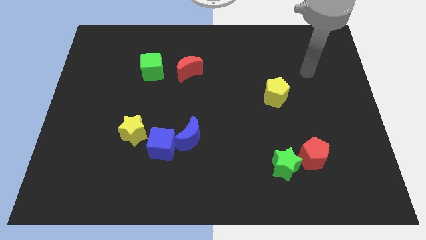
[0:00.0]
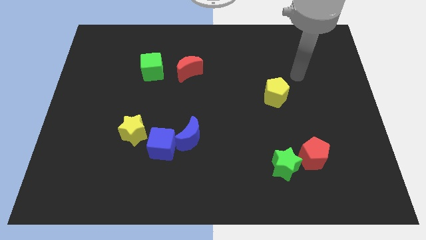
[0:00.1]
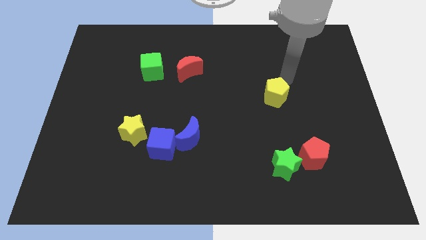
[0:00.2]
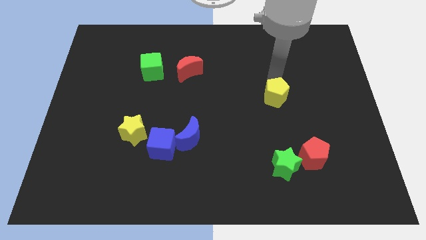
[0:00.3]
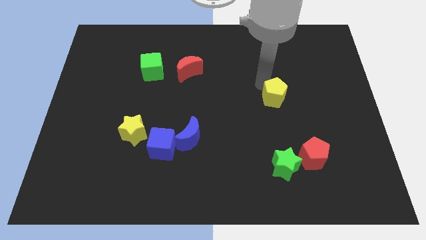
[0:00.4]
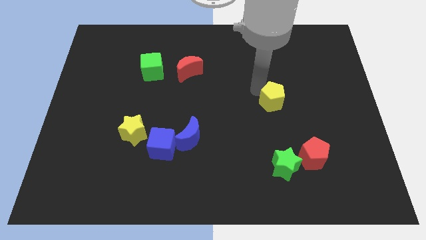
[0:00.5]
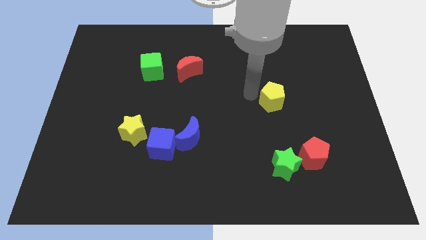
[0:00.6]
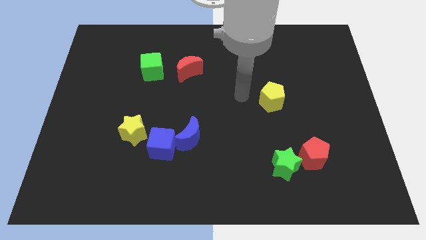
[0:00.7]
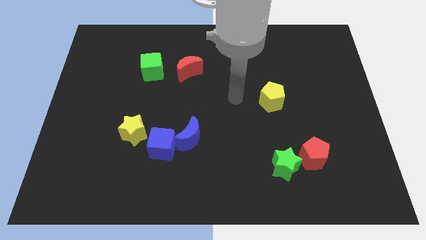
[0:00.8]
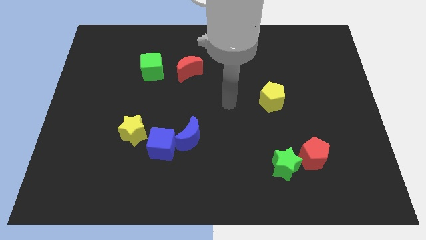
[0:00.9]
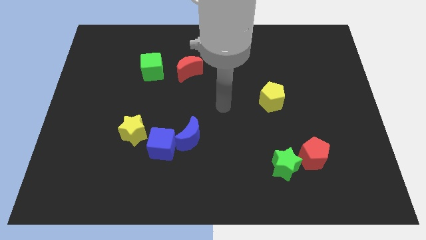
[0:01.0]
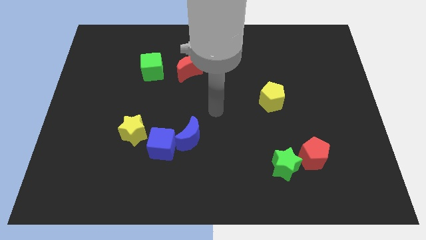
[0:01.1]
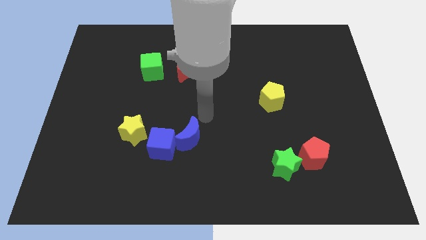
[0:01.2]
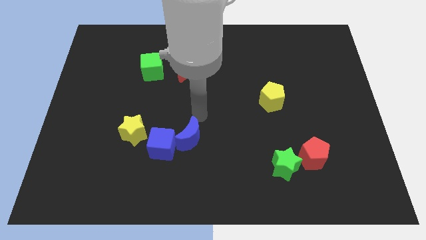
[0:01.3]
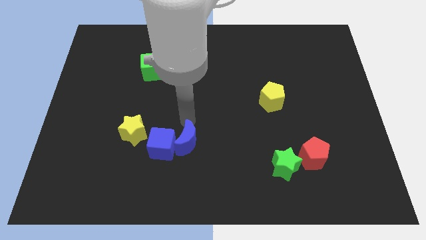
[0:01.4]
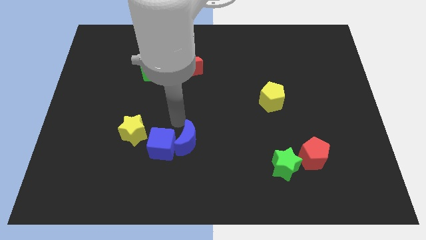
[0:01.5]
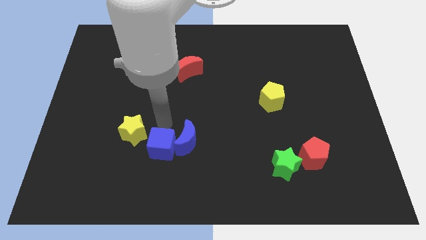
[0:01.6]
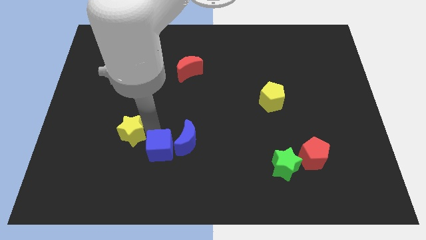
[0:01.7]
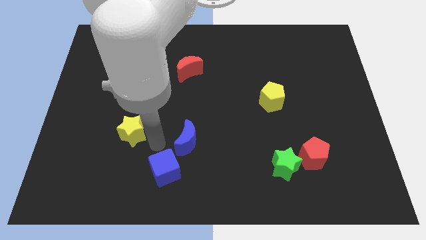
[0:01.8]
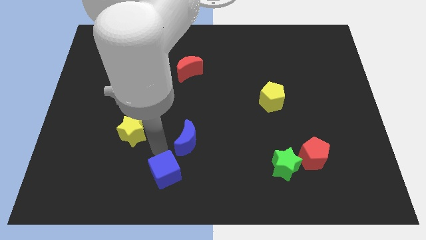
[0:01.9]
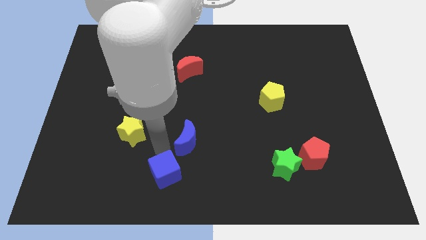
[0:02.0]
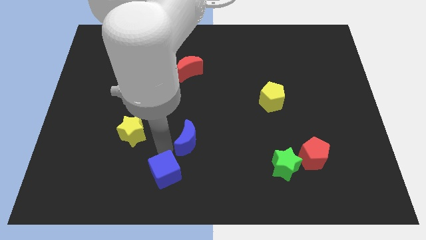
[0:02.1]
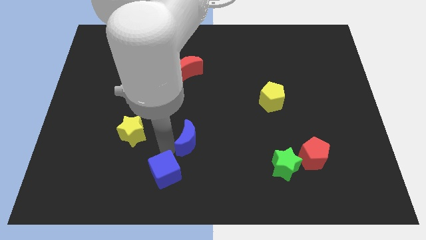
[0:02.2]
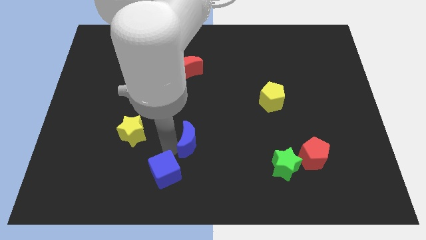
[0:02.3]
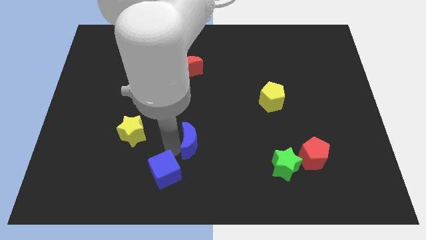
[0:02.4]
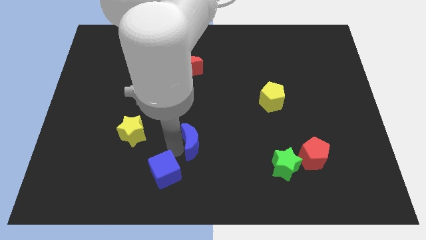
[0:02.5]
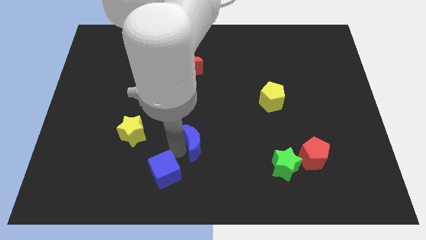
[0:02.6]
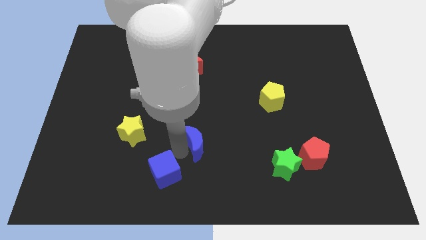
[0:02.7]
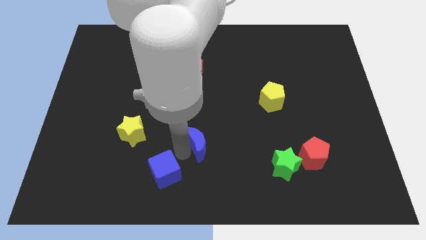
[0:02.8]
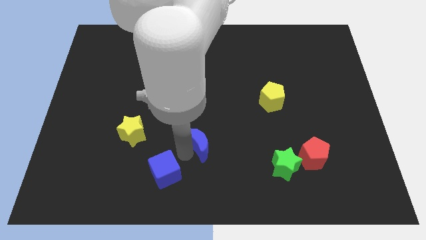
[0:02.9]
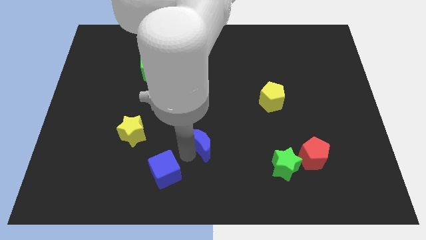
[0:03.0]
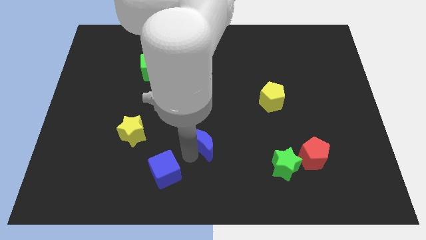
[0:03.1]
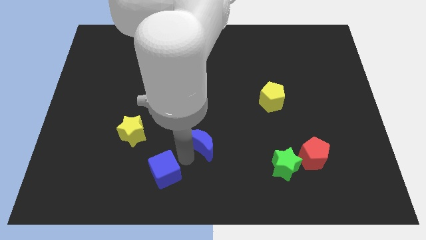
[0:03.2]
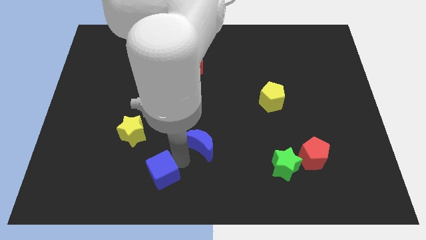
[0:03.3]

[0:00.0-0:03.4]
pull the blue moon apart from the blue cube

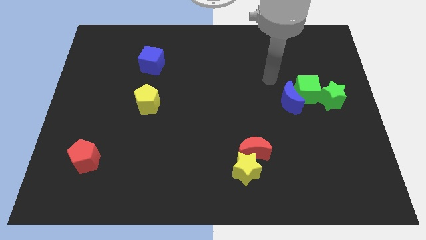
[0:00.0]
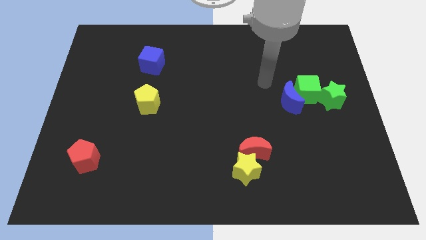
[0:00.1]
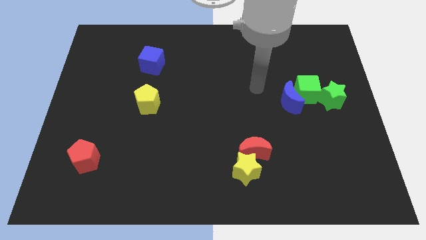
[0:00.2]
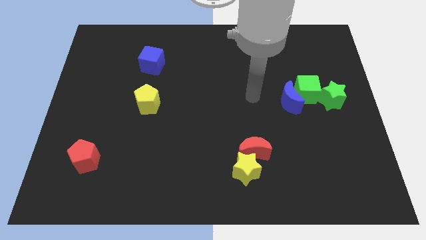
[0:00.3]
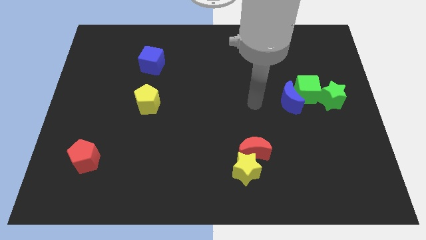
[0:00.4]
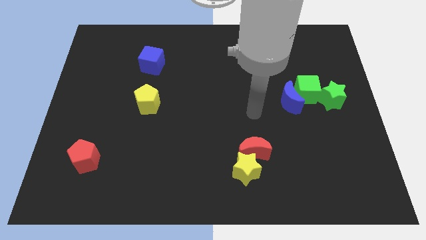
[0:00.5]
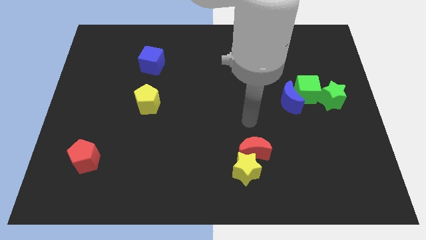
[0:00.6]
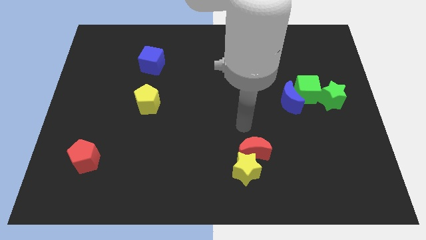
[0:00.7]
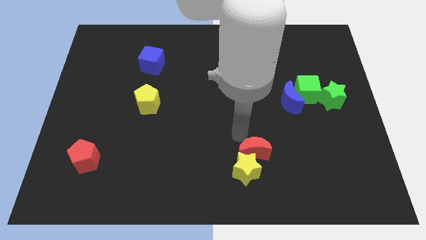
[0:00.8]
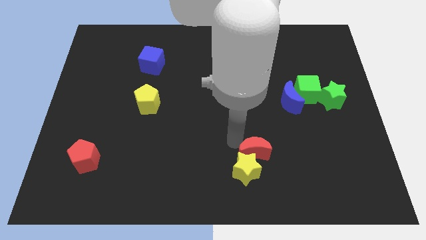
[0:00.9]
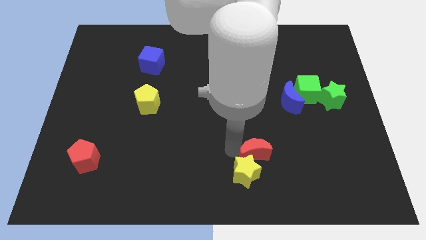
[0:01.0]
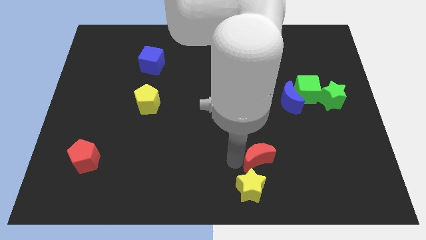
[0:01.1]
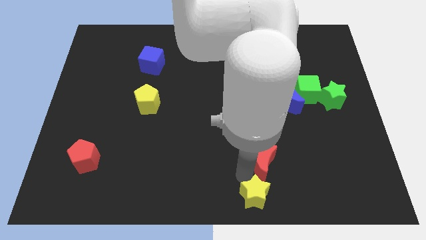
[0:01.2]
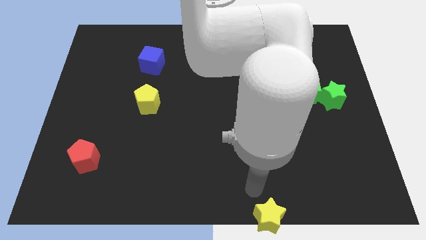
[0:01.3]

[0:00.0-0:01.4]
pull the red moon apart from the yellow star

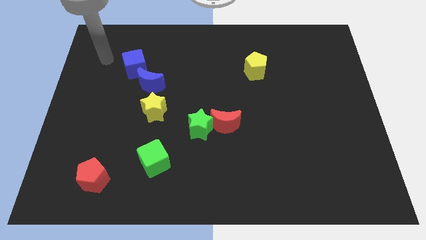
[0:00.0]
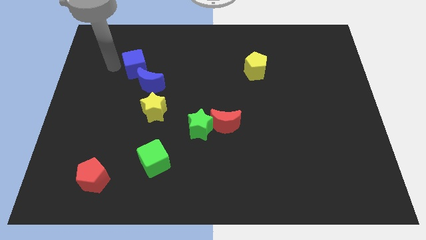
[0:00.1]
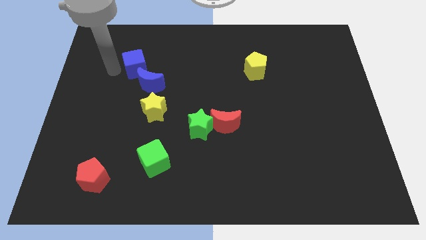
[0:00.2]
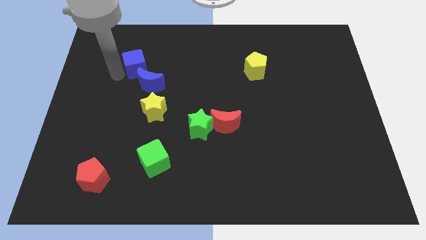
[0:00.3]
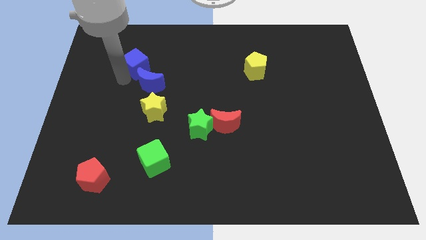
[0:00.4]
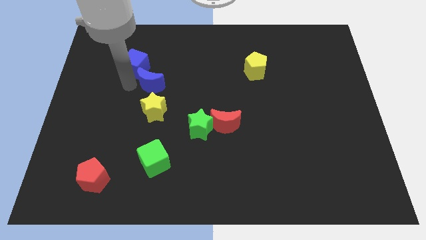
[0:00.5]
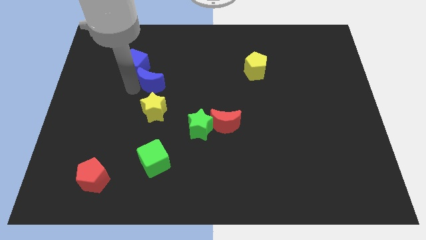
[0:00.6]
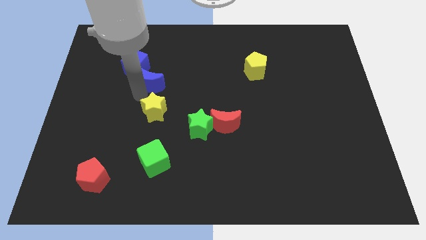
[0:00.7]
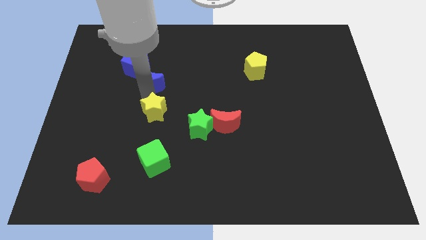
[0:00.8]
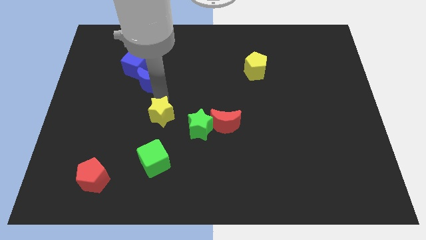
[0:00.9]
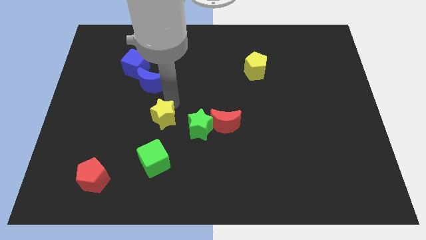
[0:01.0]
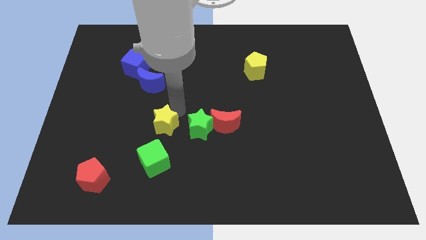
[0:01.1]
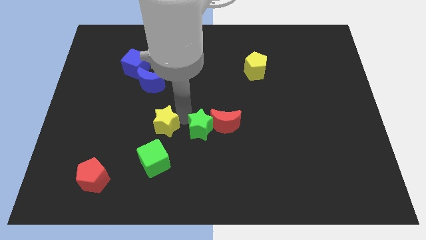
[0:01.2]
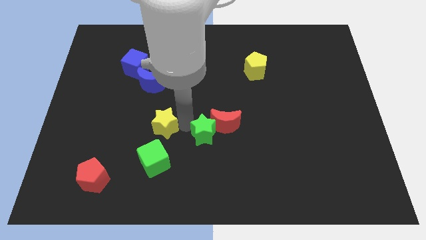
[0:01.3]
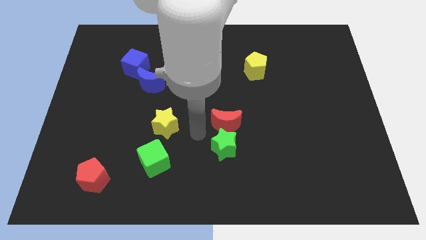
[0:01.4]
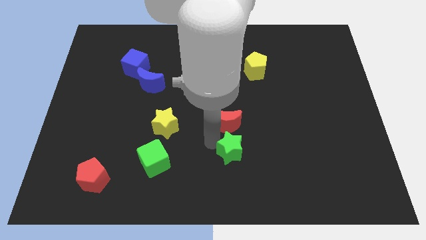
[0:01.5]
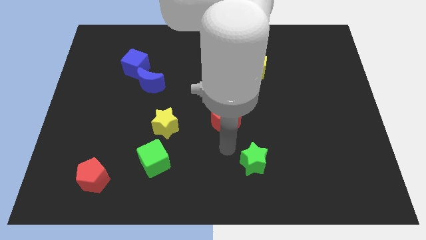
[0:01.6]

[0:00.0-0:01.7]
move the red moon away from the green star

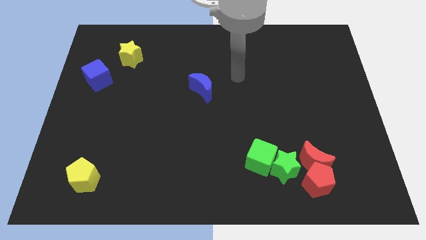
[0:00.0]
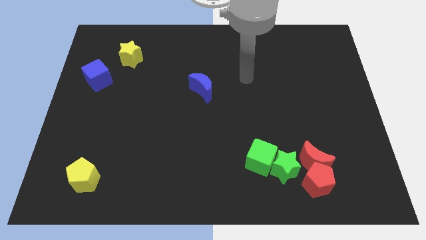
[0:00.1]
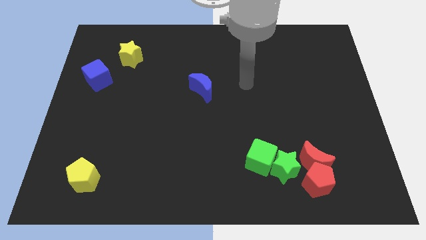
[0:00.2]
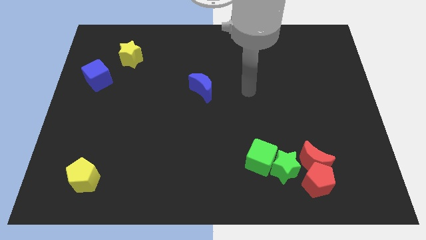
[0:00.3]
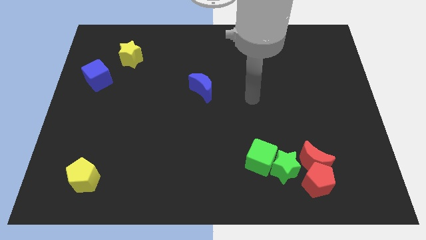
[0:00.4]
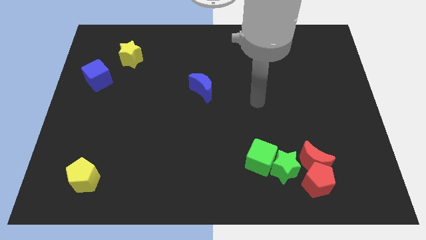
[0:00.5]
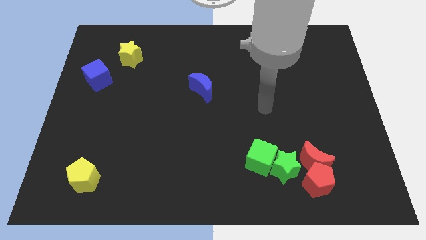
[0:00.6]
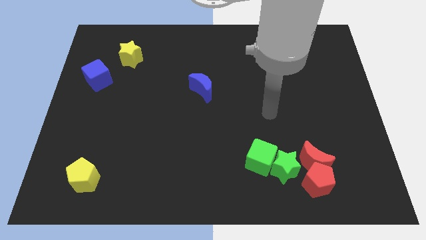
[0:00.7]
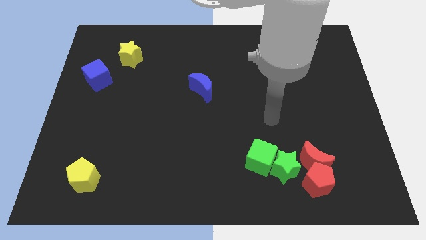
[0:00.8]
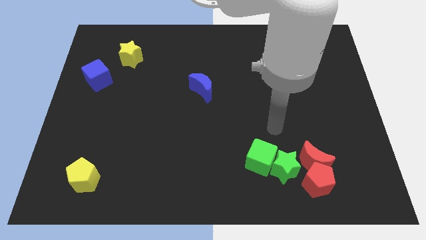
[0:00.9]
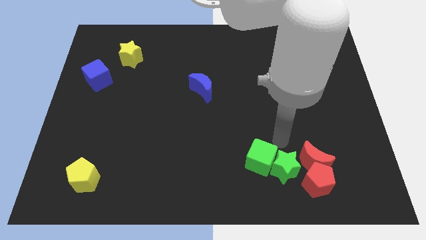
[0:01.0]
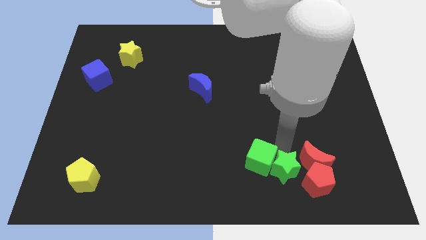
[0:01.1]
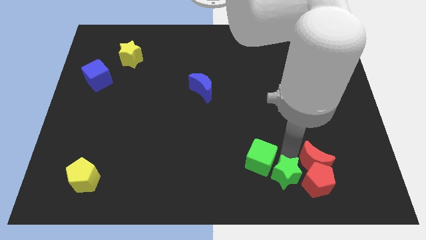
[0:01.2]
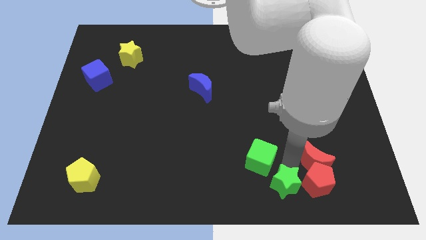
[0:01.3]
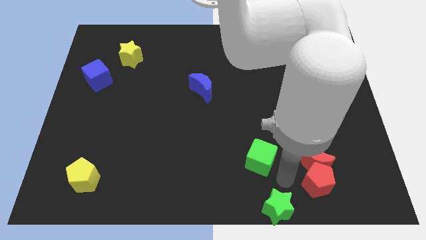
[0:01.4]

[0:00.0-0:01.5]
move the green cube away from the green star

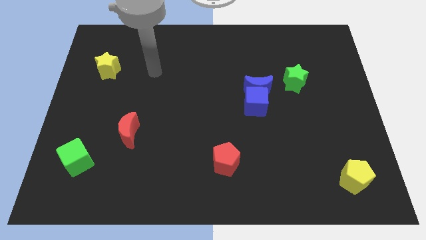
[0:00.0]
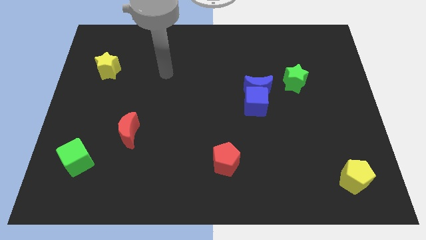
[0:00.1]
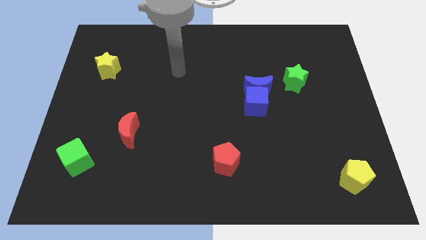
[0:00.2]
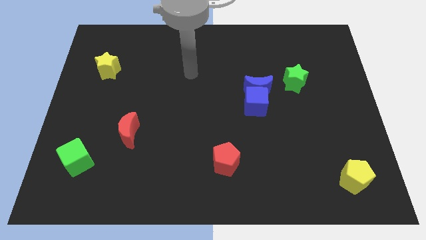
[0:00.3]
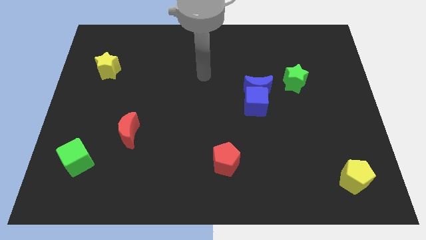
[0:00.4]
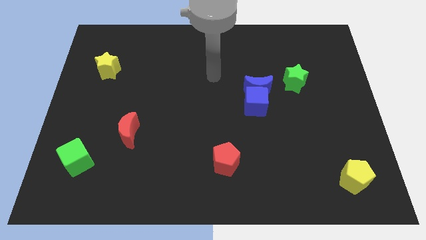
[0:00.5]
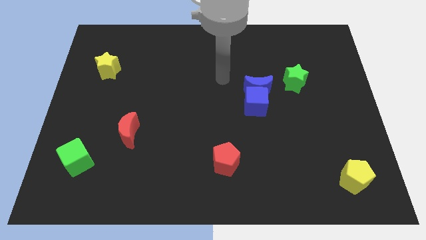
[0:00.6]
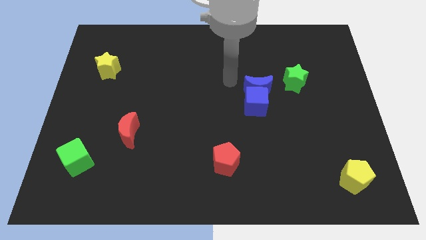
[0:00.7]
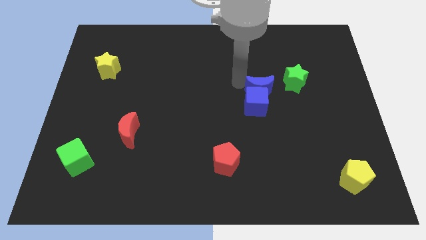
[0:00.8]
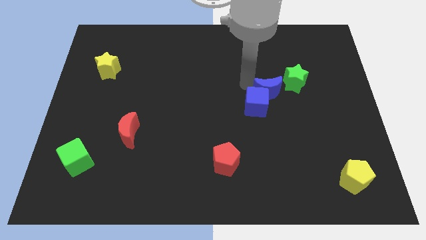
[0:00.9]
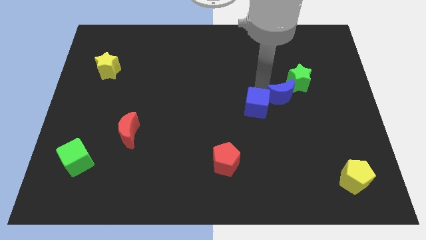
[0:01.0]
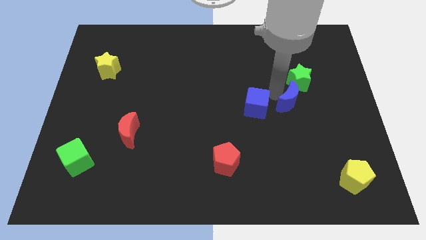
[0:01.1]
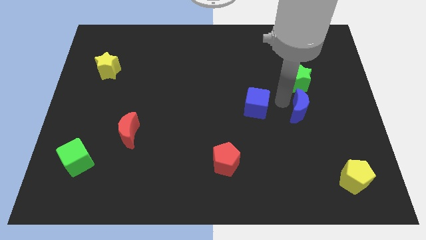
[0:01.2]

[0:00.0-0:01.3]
move the blue cube away from the blue moon

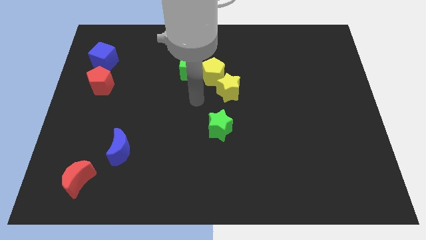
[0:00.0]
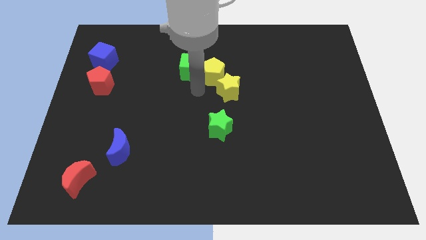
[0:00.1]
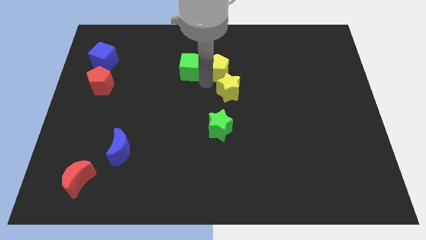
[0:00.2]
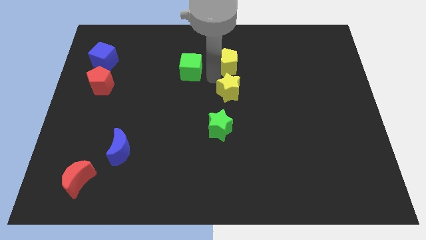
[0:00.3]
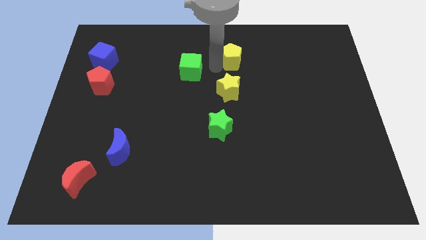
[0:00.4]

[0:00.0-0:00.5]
separate the green cube from the yellow pentagon
